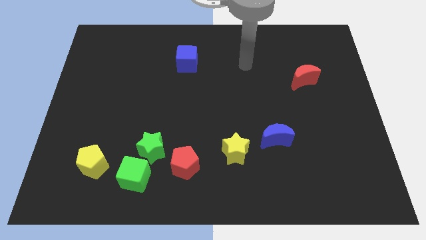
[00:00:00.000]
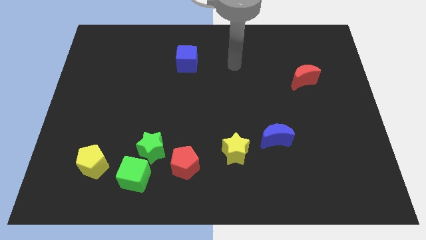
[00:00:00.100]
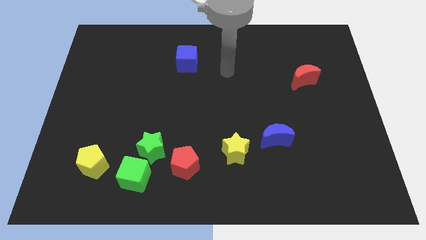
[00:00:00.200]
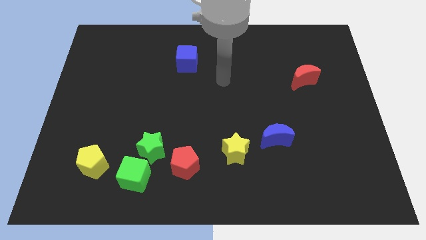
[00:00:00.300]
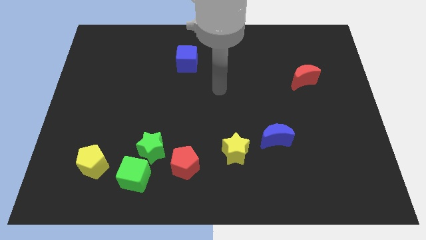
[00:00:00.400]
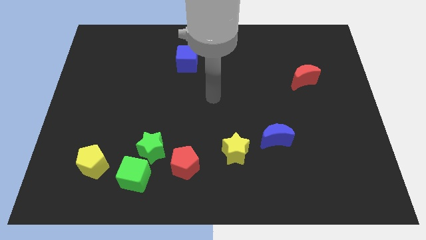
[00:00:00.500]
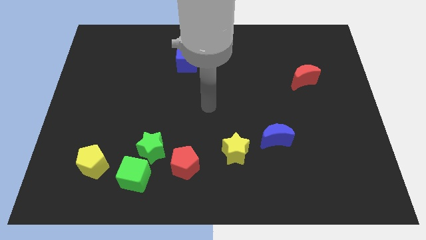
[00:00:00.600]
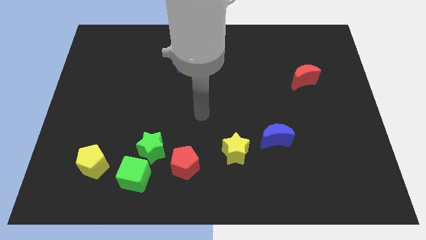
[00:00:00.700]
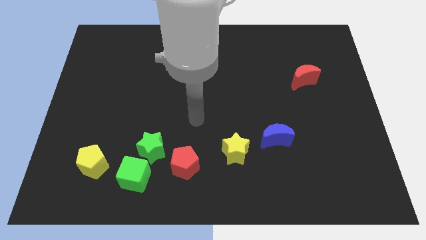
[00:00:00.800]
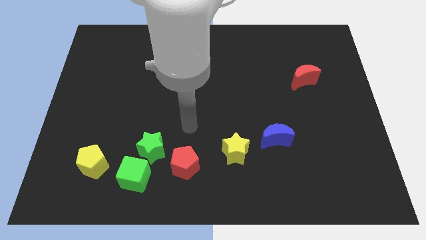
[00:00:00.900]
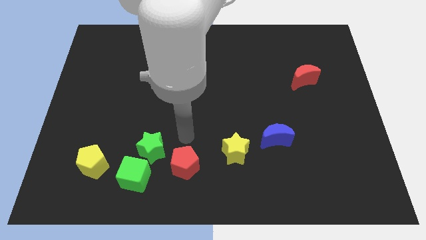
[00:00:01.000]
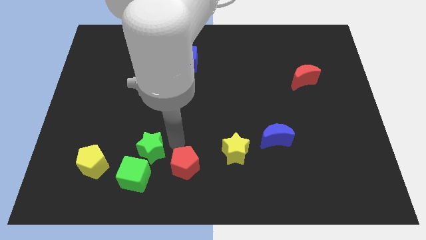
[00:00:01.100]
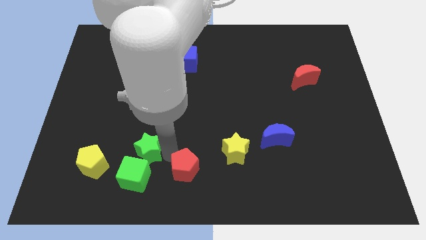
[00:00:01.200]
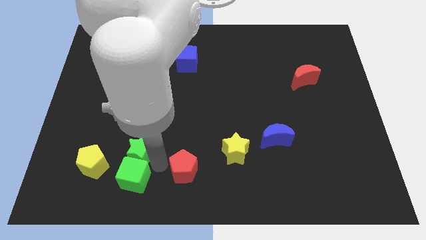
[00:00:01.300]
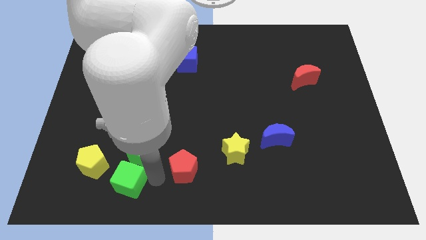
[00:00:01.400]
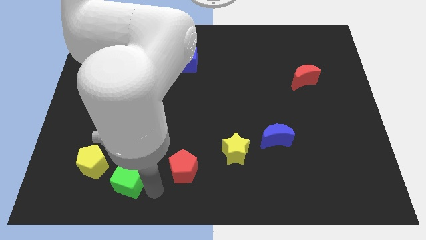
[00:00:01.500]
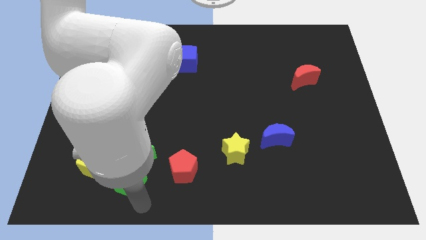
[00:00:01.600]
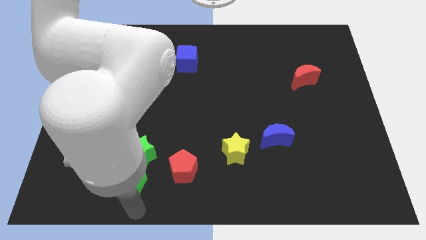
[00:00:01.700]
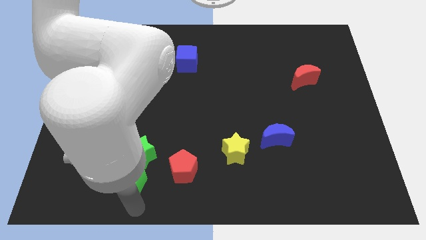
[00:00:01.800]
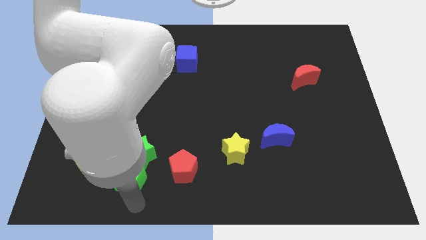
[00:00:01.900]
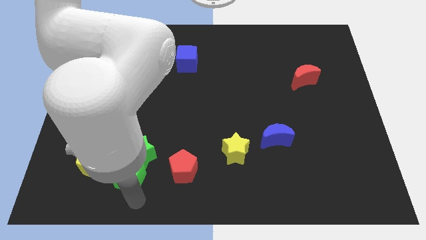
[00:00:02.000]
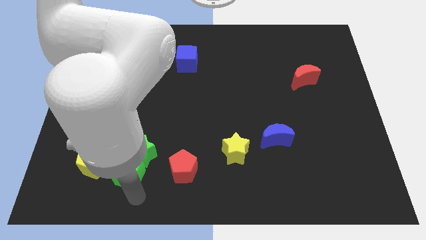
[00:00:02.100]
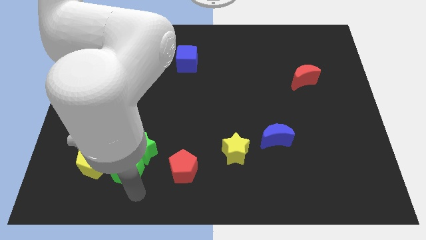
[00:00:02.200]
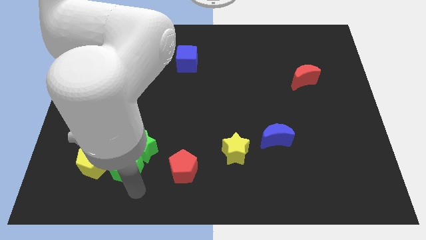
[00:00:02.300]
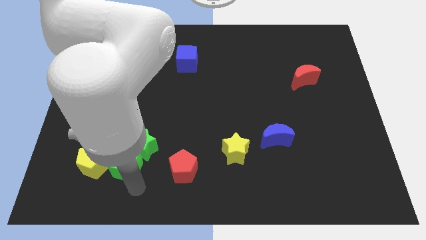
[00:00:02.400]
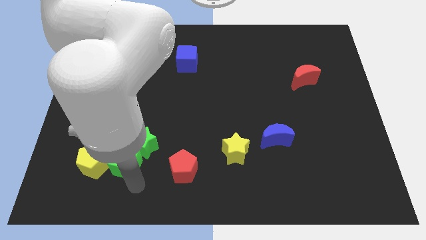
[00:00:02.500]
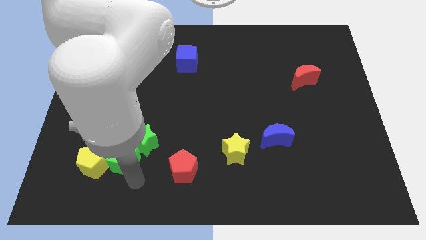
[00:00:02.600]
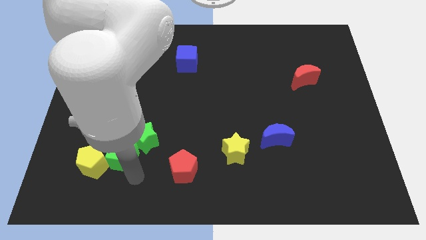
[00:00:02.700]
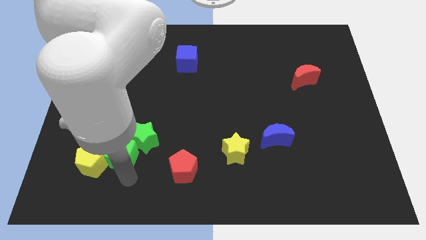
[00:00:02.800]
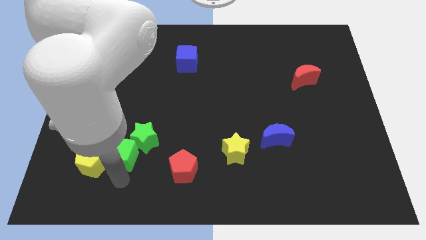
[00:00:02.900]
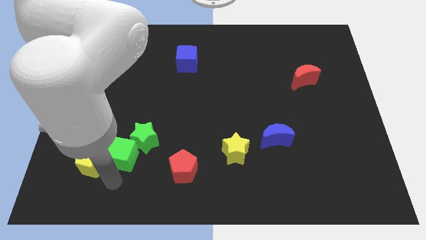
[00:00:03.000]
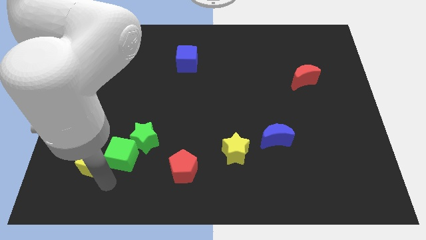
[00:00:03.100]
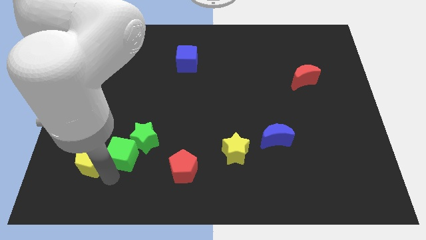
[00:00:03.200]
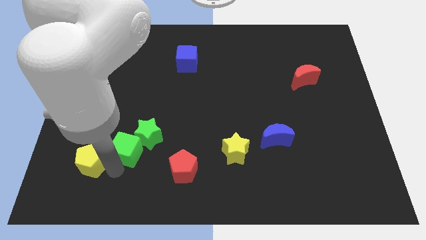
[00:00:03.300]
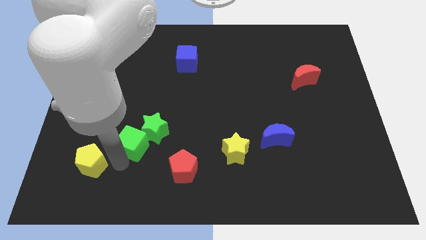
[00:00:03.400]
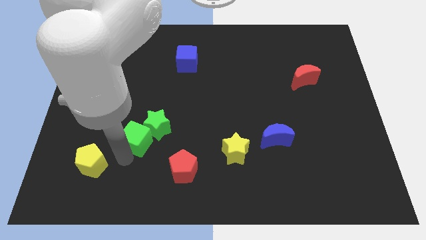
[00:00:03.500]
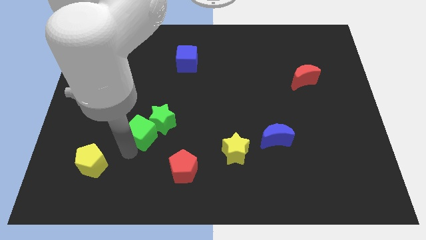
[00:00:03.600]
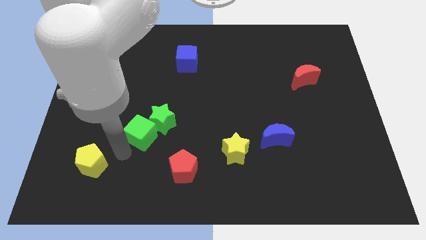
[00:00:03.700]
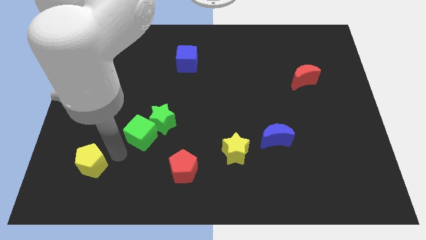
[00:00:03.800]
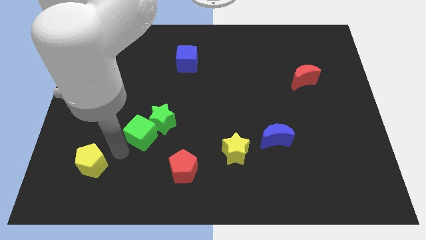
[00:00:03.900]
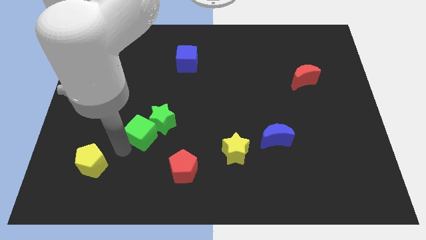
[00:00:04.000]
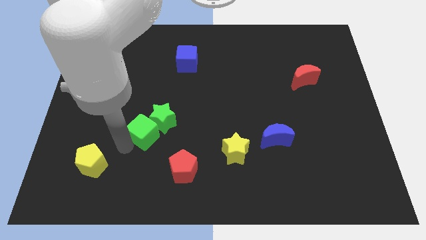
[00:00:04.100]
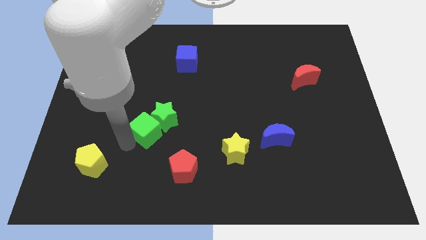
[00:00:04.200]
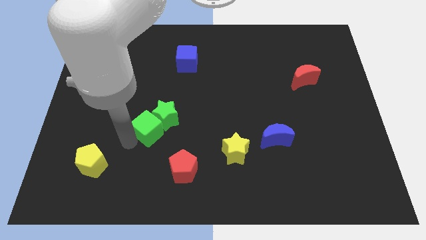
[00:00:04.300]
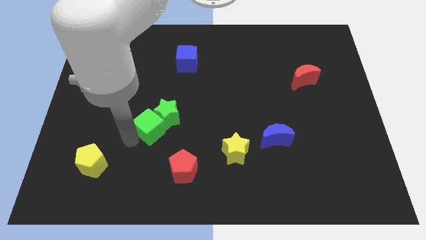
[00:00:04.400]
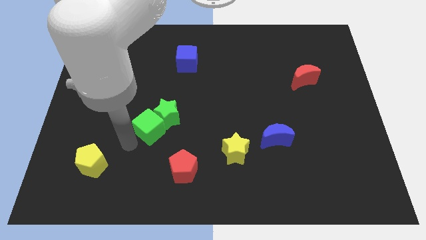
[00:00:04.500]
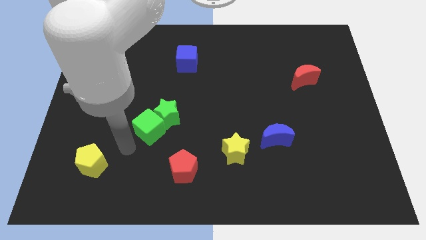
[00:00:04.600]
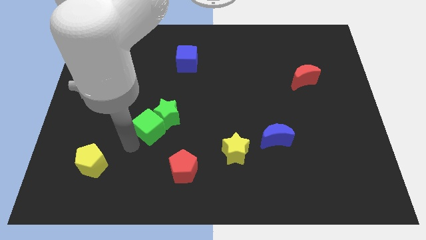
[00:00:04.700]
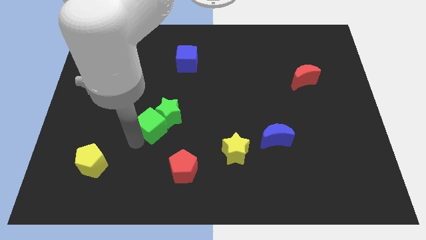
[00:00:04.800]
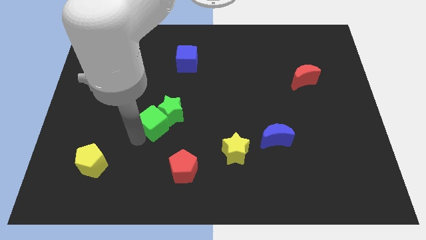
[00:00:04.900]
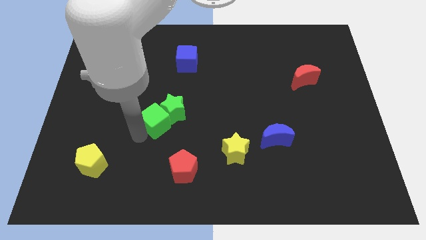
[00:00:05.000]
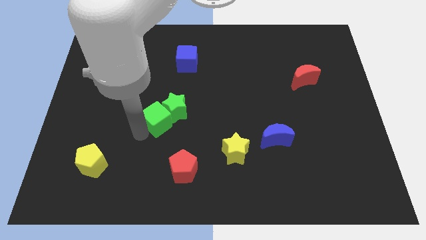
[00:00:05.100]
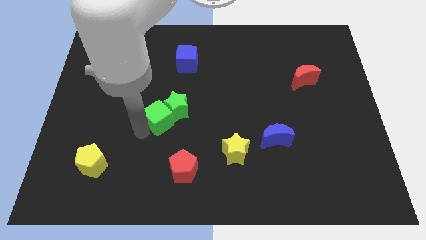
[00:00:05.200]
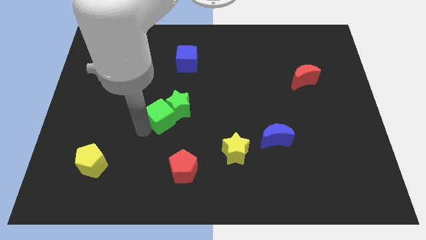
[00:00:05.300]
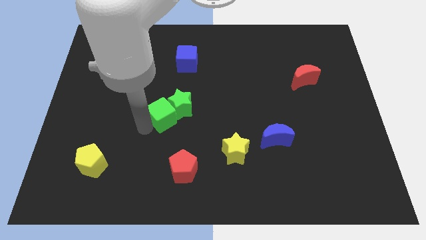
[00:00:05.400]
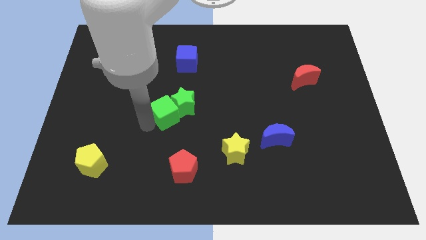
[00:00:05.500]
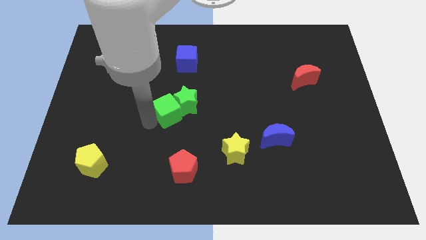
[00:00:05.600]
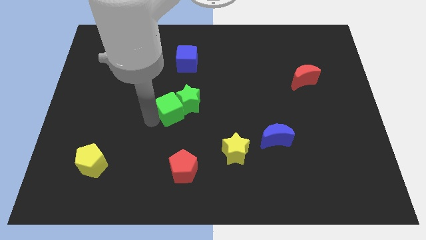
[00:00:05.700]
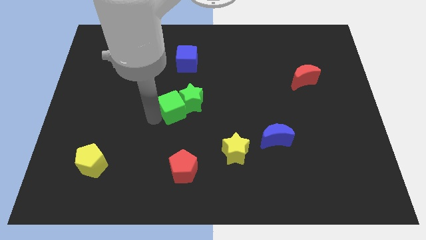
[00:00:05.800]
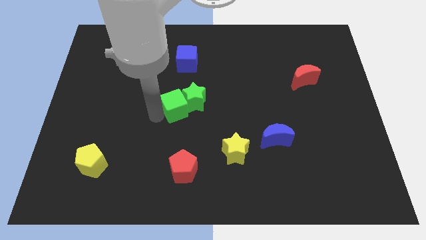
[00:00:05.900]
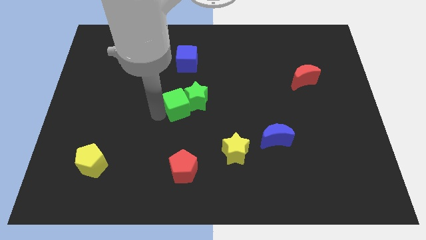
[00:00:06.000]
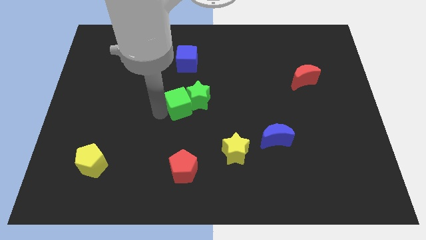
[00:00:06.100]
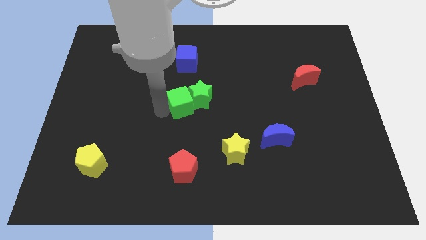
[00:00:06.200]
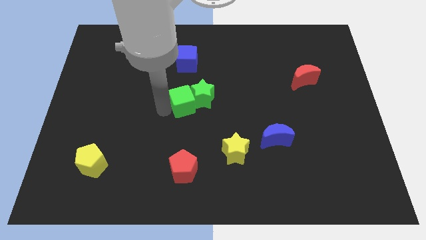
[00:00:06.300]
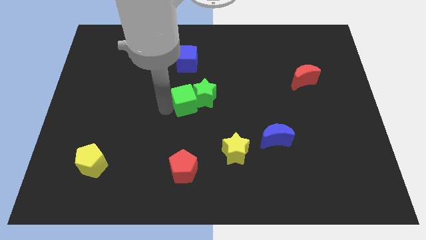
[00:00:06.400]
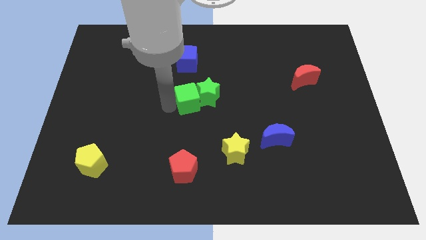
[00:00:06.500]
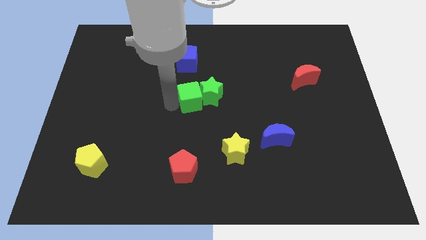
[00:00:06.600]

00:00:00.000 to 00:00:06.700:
slide the green cube up and then to the right

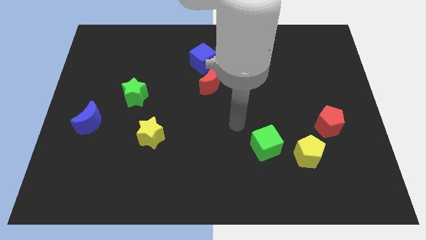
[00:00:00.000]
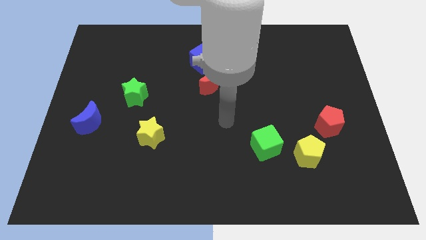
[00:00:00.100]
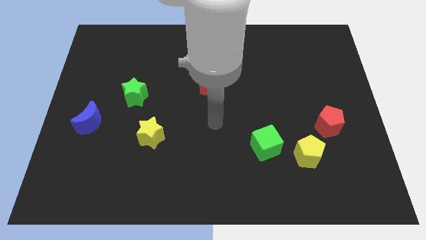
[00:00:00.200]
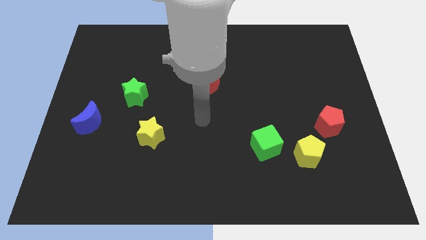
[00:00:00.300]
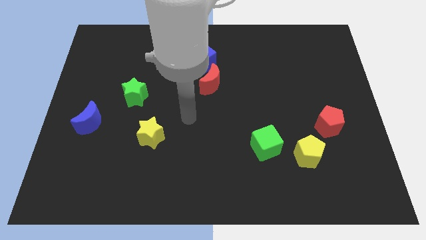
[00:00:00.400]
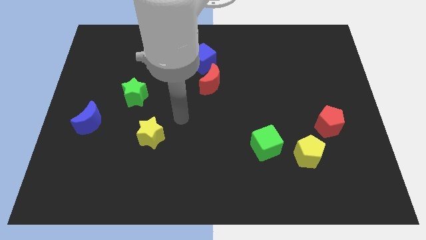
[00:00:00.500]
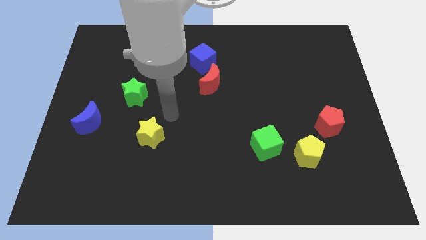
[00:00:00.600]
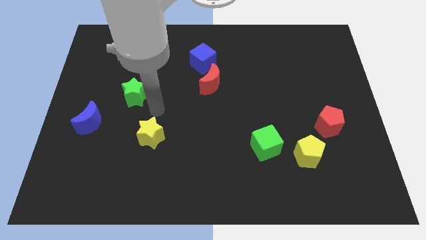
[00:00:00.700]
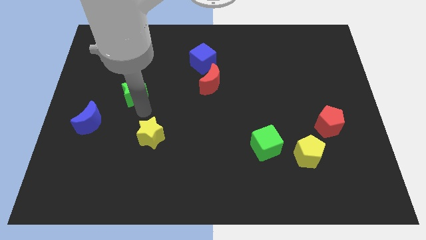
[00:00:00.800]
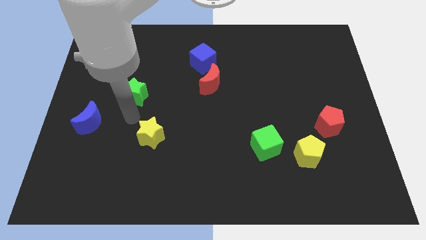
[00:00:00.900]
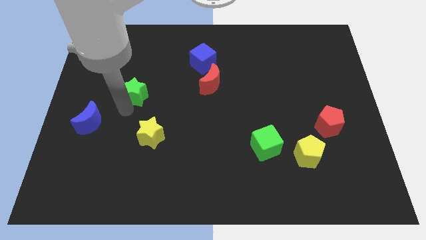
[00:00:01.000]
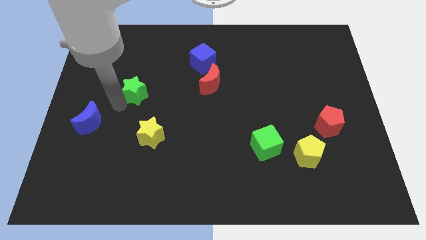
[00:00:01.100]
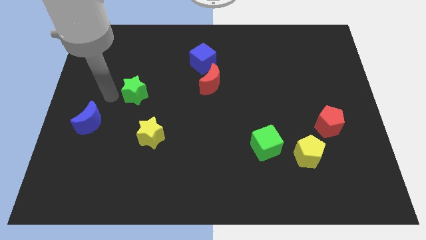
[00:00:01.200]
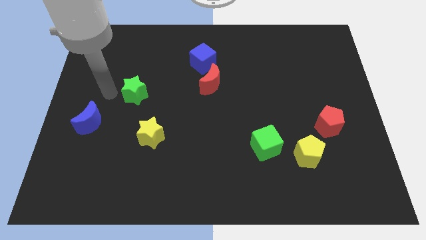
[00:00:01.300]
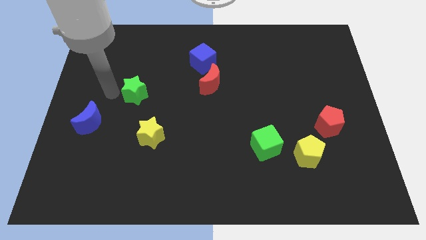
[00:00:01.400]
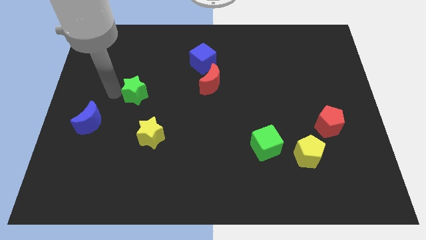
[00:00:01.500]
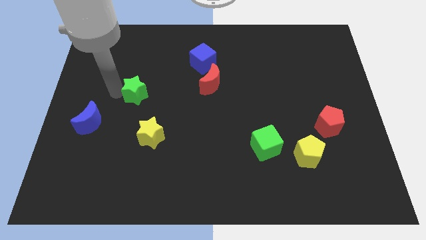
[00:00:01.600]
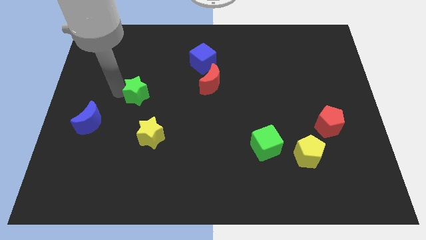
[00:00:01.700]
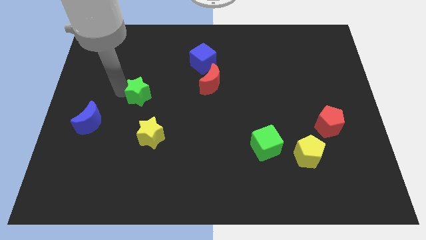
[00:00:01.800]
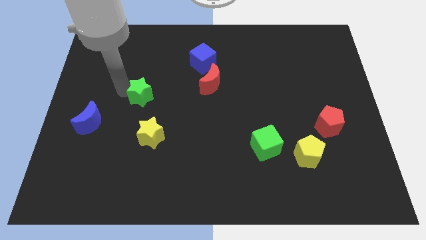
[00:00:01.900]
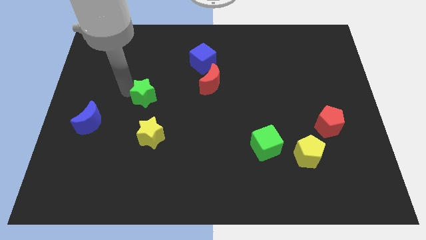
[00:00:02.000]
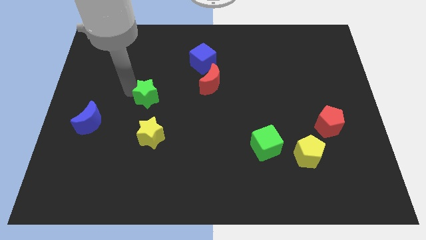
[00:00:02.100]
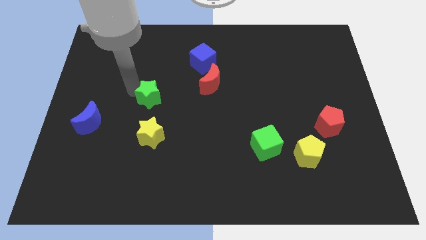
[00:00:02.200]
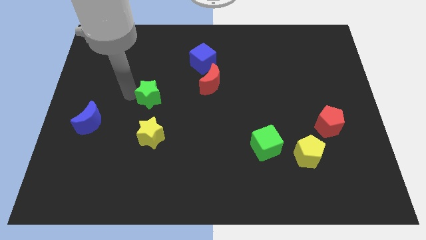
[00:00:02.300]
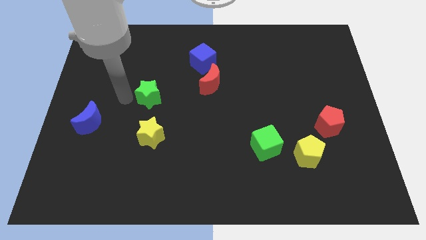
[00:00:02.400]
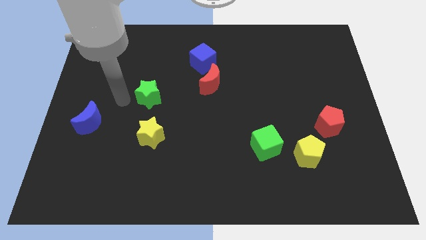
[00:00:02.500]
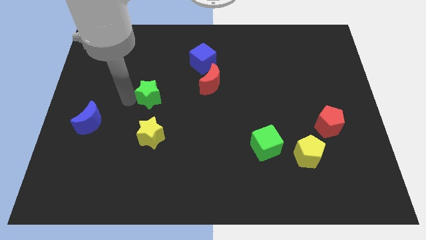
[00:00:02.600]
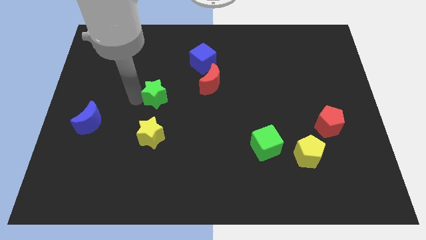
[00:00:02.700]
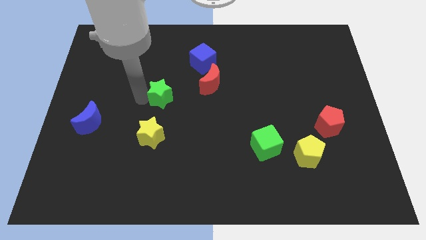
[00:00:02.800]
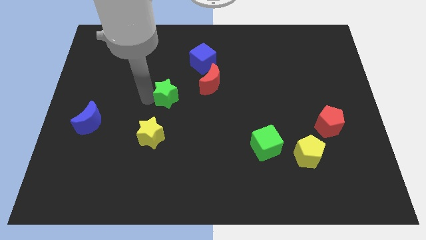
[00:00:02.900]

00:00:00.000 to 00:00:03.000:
move the green star right slightly
